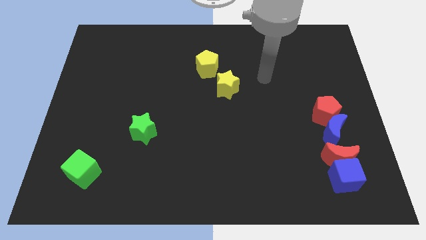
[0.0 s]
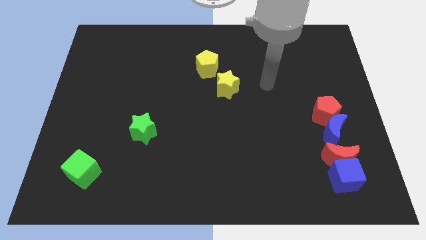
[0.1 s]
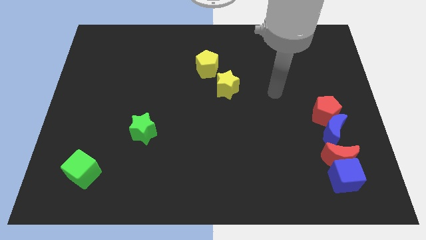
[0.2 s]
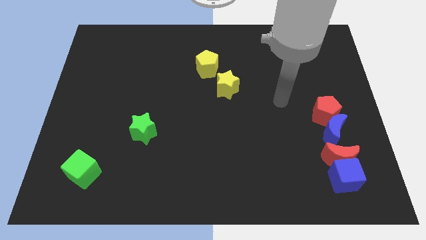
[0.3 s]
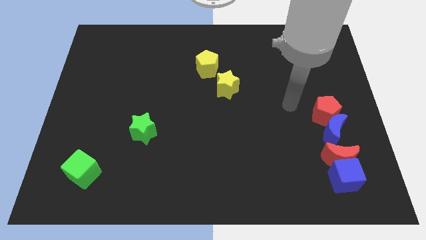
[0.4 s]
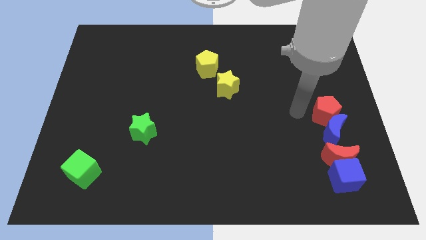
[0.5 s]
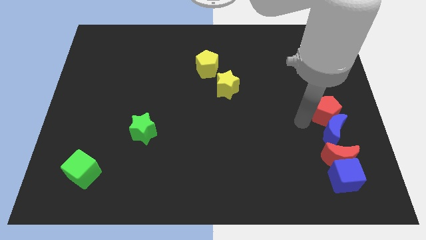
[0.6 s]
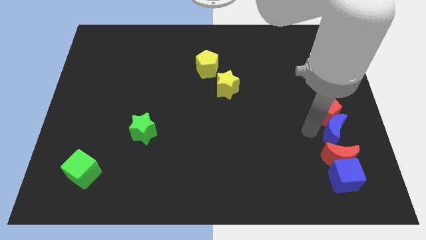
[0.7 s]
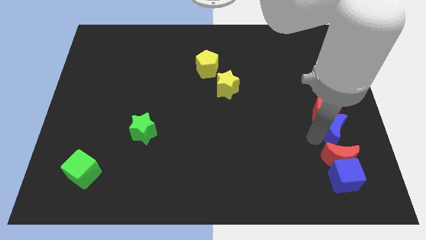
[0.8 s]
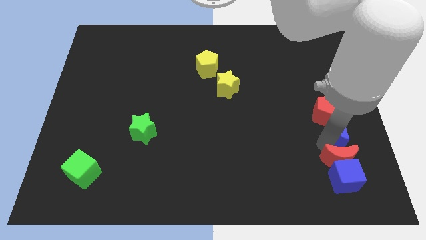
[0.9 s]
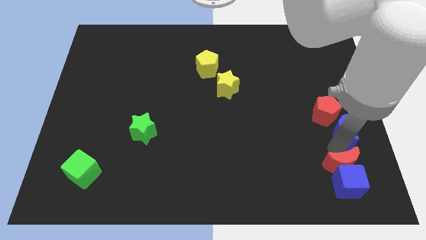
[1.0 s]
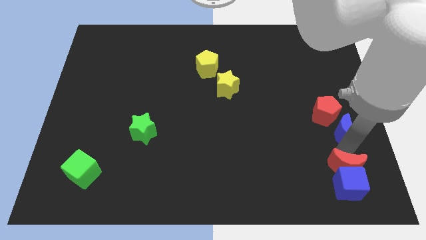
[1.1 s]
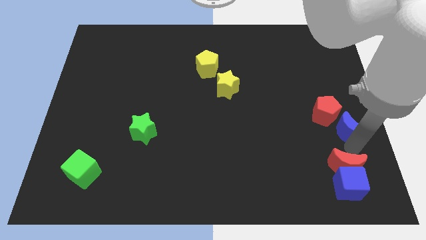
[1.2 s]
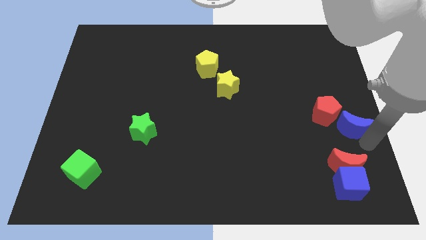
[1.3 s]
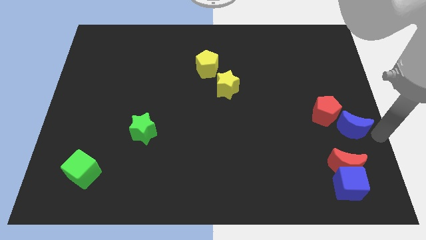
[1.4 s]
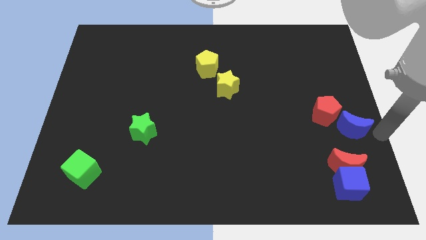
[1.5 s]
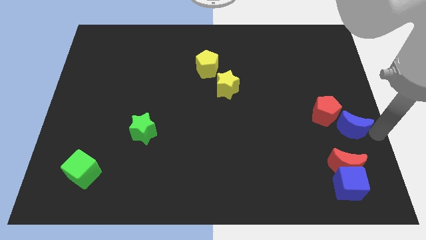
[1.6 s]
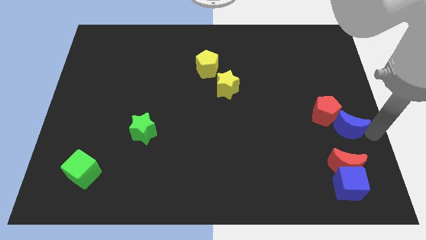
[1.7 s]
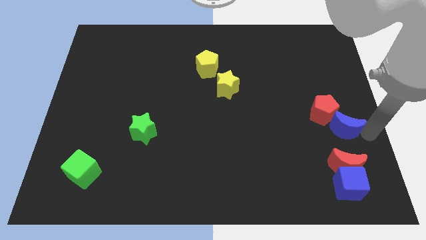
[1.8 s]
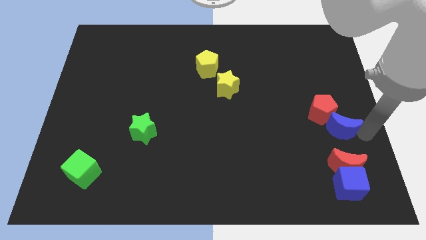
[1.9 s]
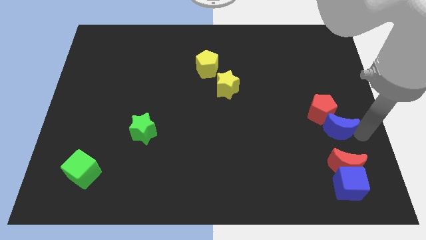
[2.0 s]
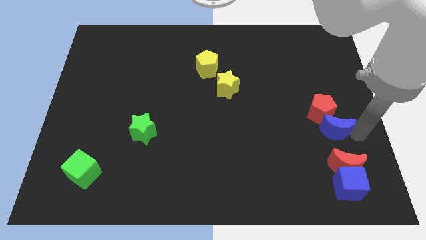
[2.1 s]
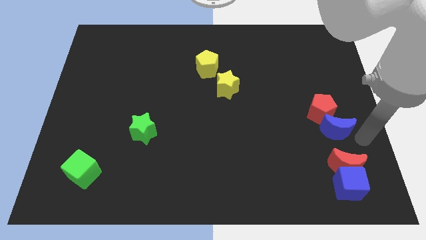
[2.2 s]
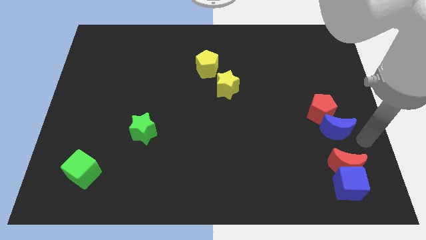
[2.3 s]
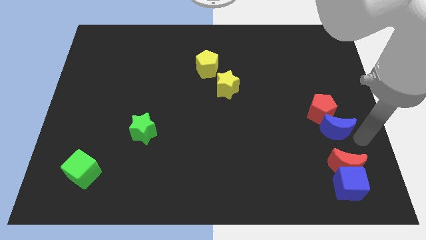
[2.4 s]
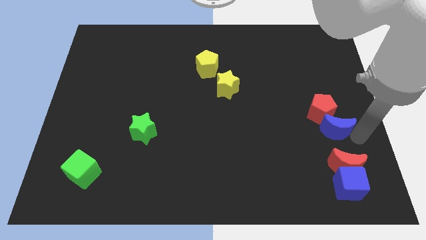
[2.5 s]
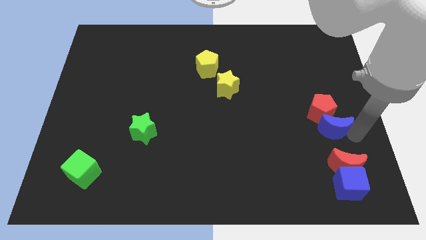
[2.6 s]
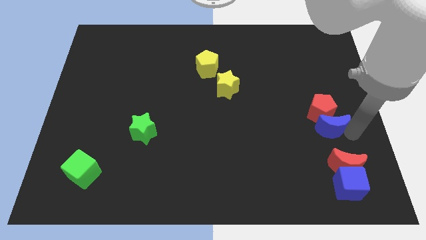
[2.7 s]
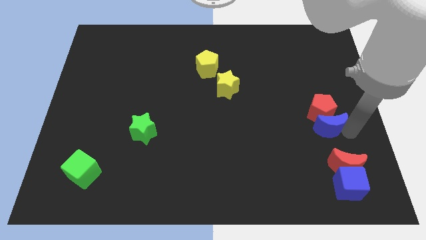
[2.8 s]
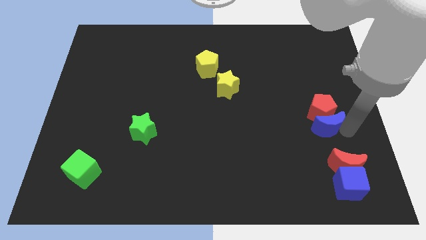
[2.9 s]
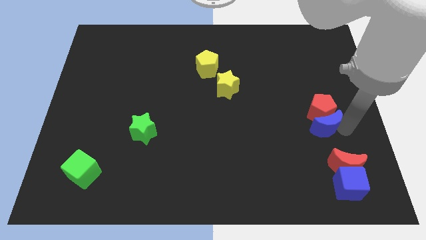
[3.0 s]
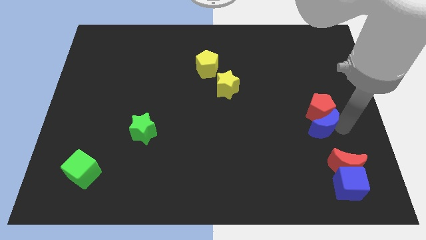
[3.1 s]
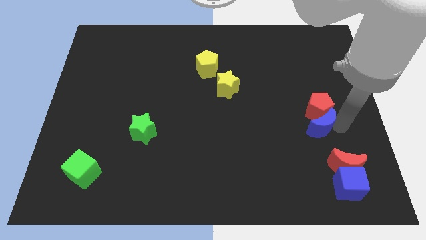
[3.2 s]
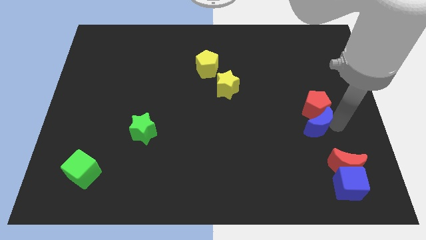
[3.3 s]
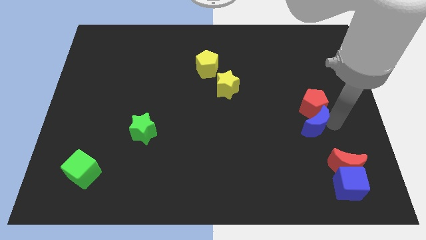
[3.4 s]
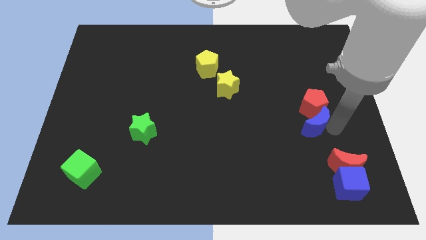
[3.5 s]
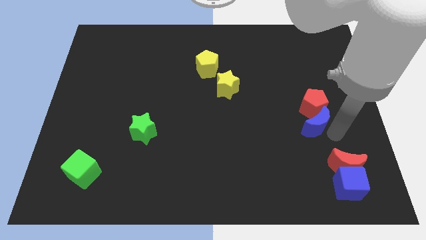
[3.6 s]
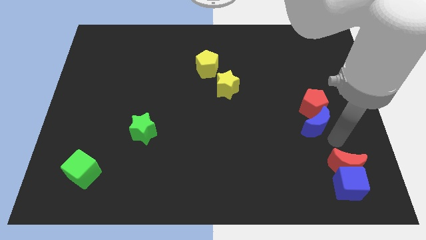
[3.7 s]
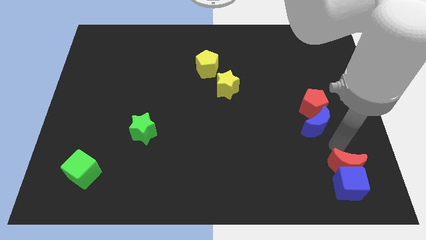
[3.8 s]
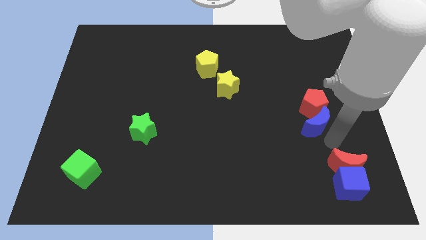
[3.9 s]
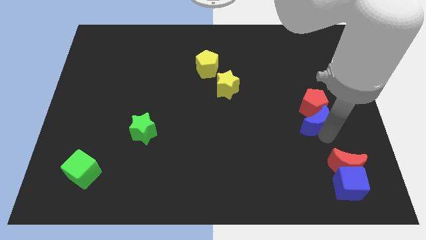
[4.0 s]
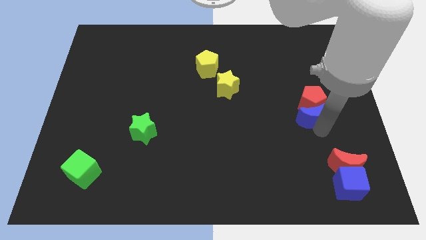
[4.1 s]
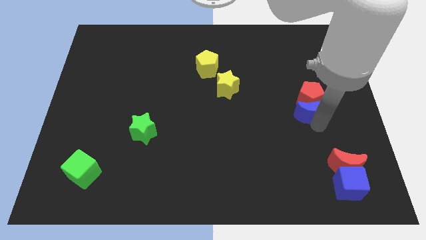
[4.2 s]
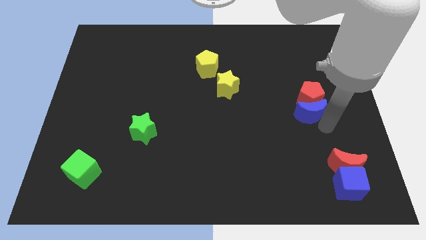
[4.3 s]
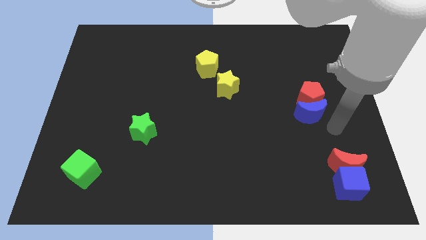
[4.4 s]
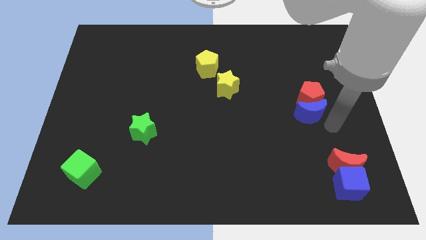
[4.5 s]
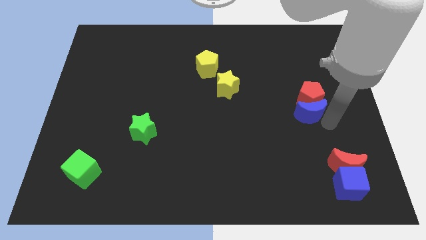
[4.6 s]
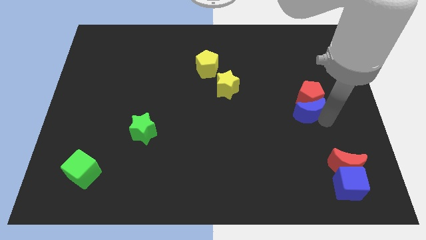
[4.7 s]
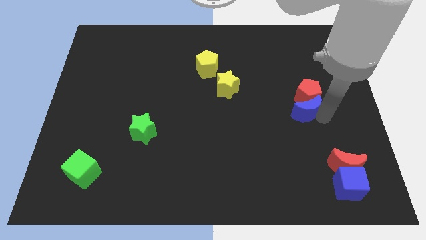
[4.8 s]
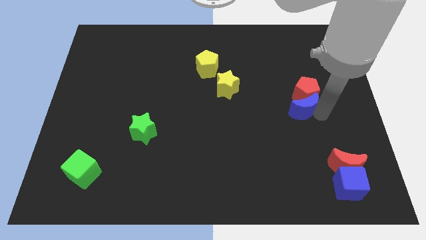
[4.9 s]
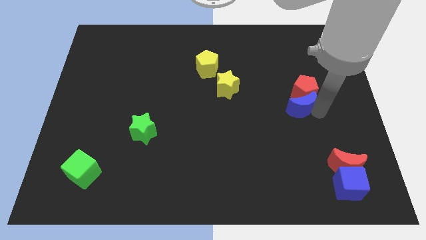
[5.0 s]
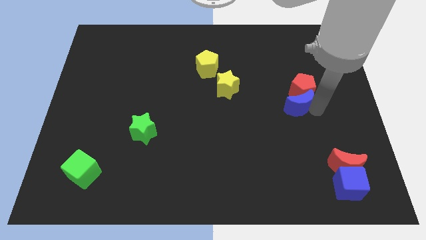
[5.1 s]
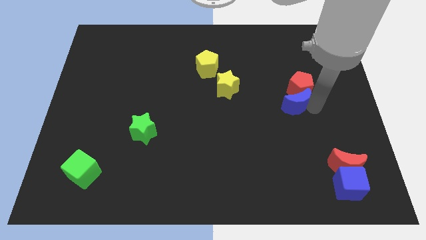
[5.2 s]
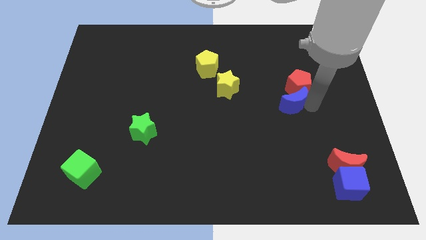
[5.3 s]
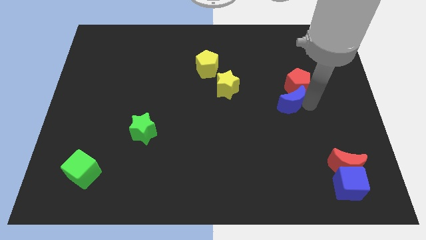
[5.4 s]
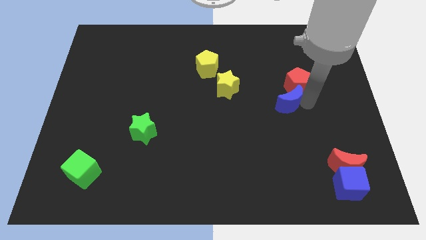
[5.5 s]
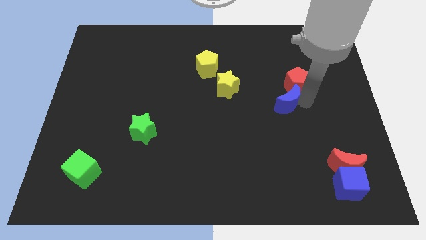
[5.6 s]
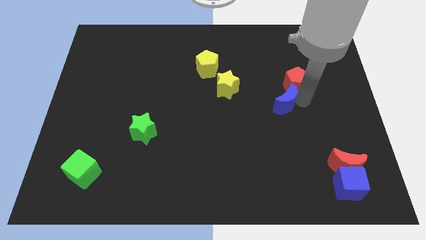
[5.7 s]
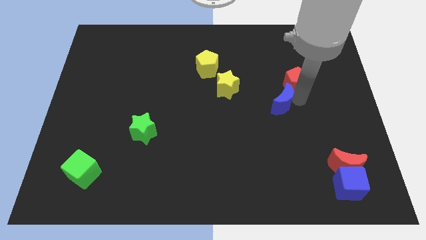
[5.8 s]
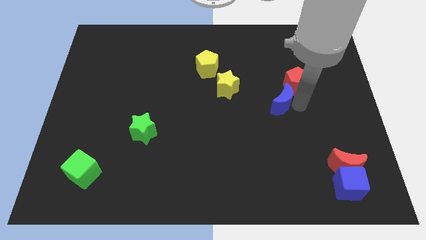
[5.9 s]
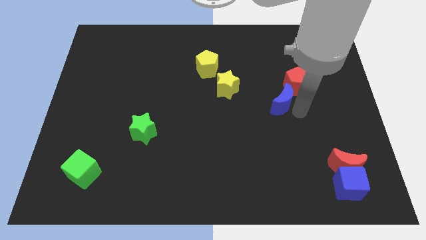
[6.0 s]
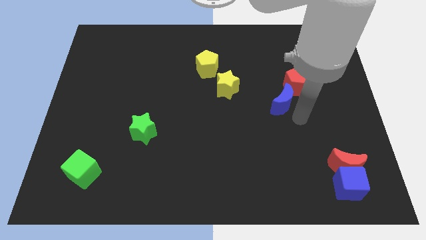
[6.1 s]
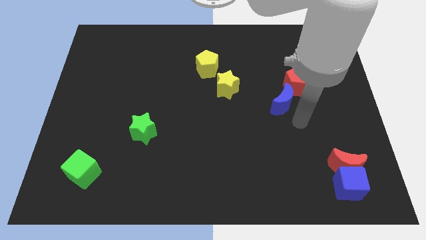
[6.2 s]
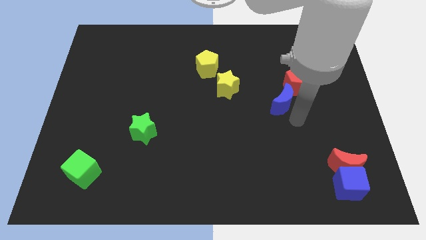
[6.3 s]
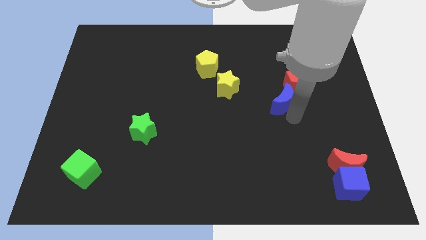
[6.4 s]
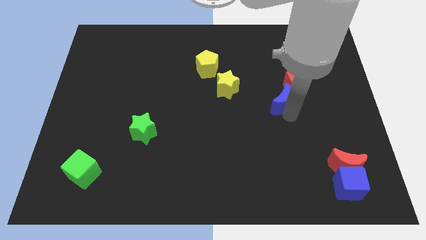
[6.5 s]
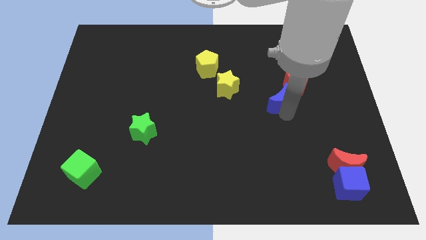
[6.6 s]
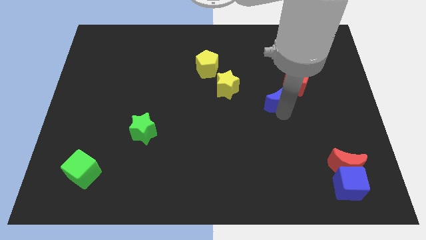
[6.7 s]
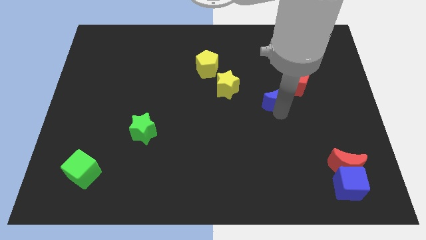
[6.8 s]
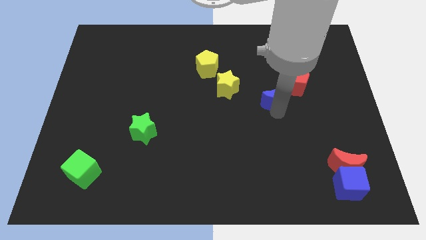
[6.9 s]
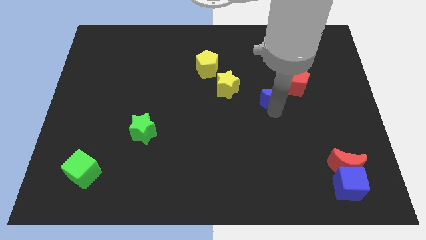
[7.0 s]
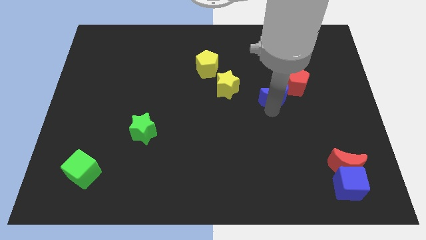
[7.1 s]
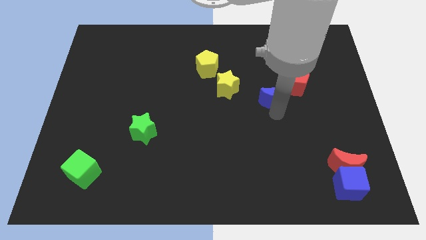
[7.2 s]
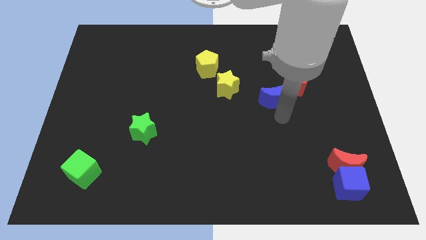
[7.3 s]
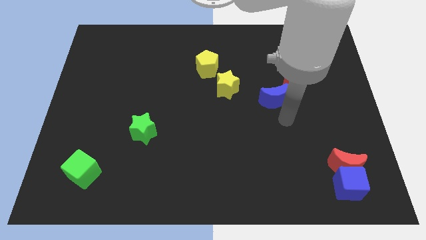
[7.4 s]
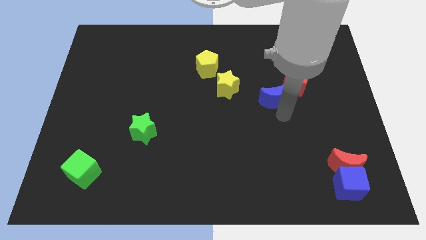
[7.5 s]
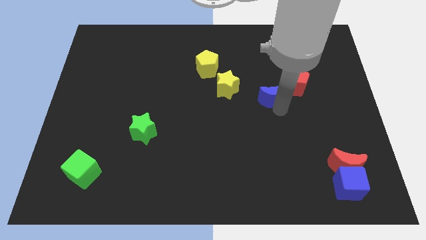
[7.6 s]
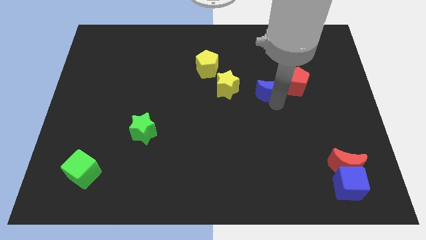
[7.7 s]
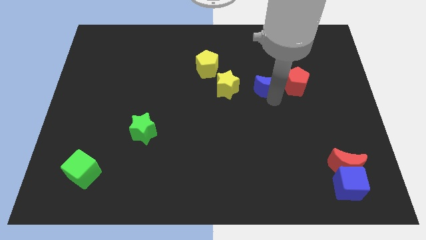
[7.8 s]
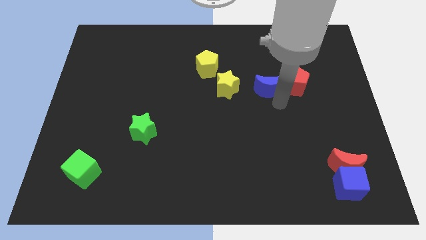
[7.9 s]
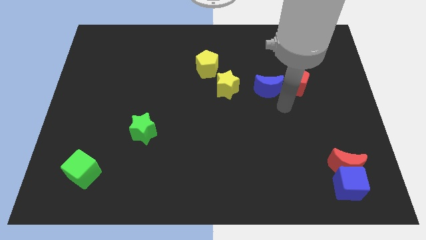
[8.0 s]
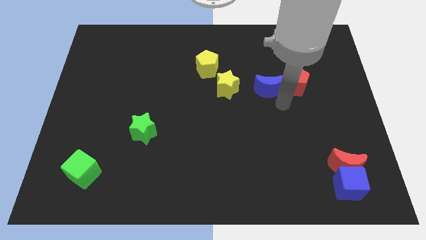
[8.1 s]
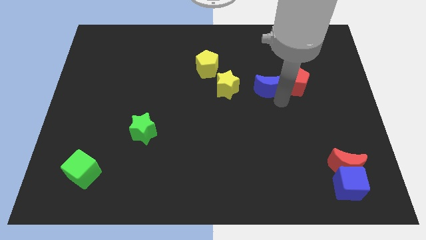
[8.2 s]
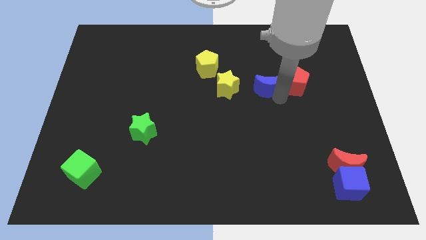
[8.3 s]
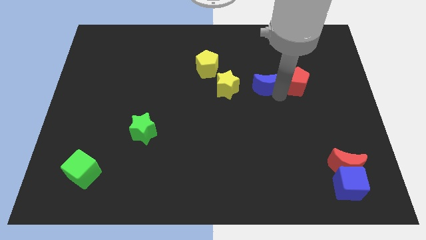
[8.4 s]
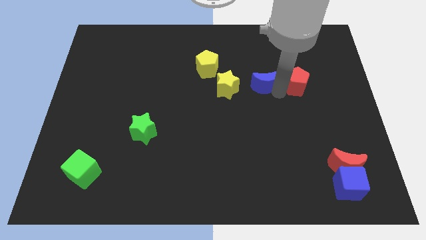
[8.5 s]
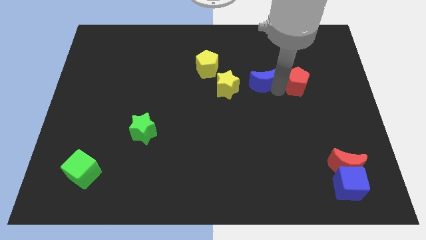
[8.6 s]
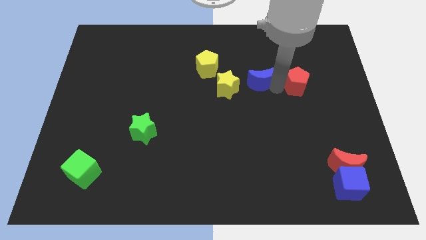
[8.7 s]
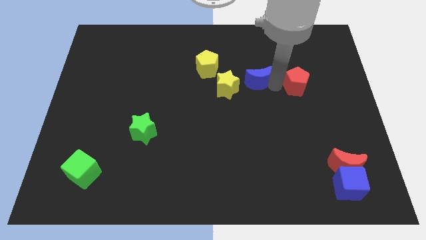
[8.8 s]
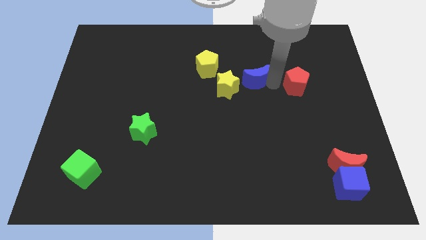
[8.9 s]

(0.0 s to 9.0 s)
push the blue moon right of the yellow pentagon
